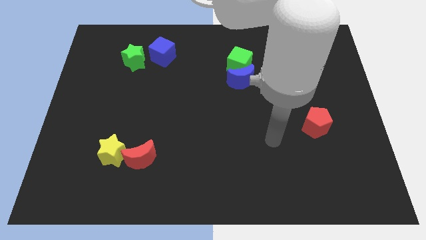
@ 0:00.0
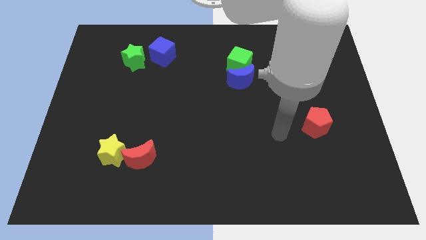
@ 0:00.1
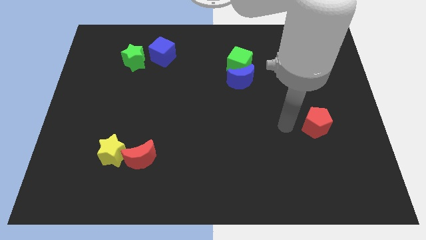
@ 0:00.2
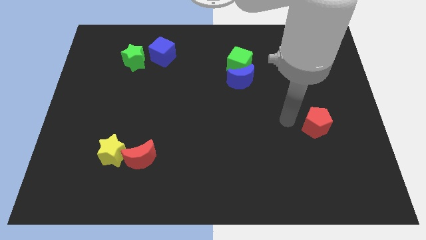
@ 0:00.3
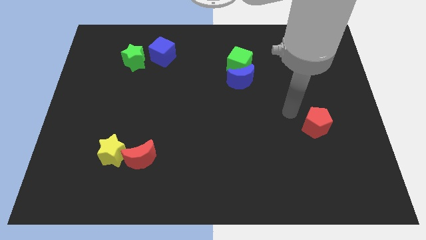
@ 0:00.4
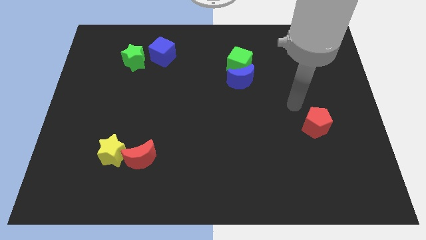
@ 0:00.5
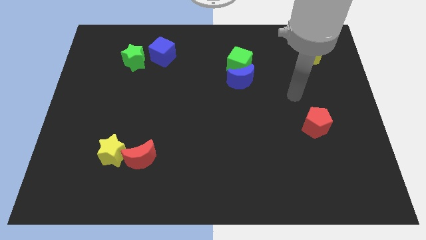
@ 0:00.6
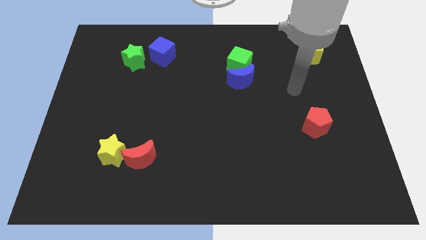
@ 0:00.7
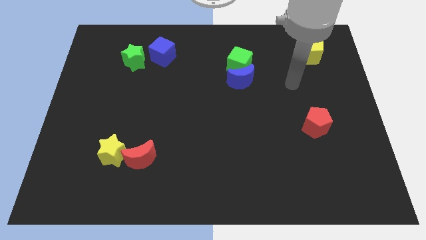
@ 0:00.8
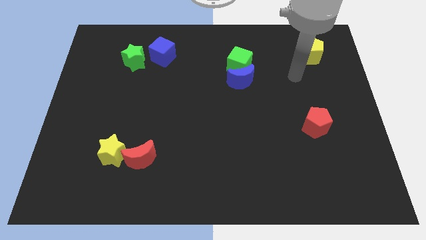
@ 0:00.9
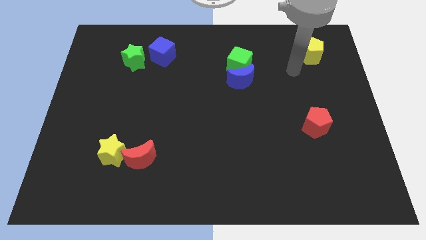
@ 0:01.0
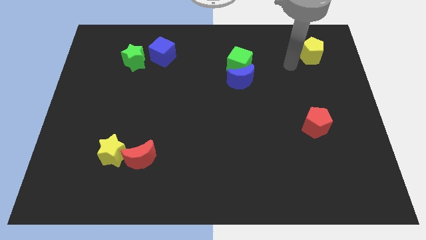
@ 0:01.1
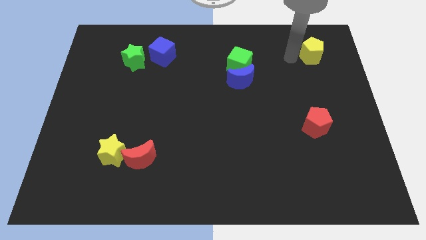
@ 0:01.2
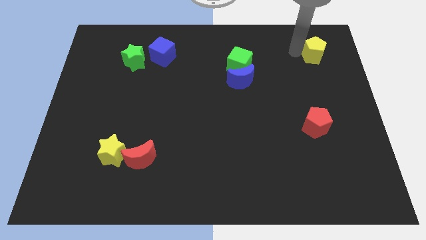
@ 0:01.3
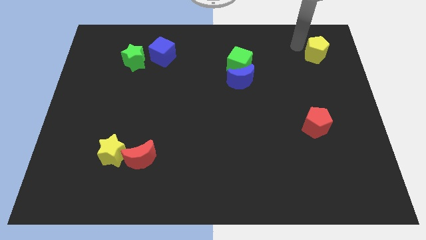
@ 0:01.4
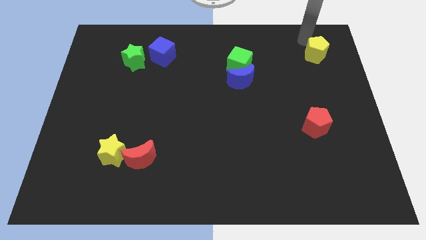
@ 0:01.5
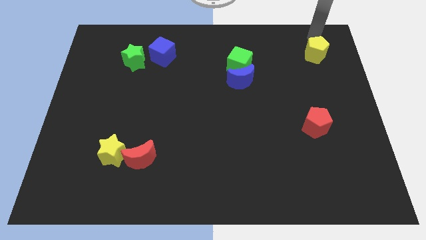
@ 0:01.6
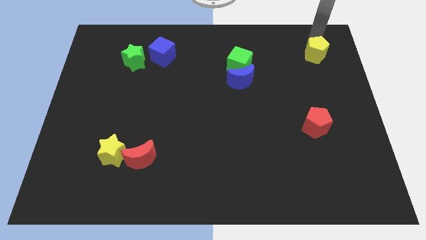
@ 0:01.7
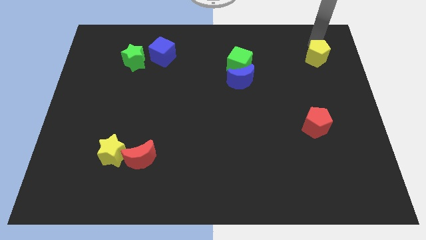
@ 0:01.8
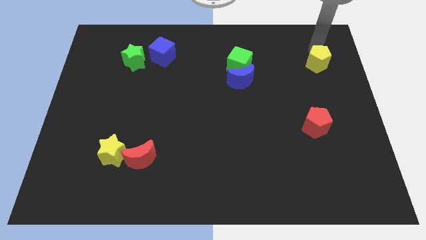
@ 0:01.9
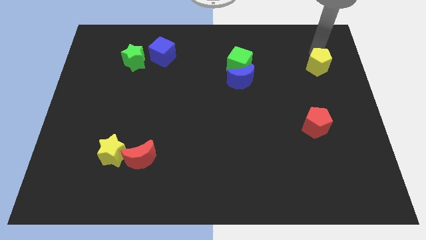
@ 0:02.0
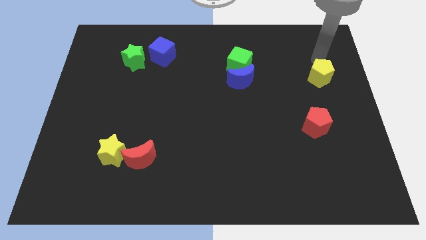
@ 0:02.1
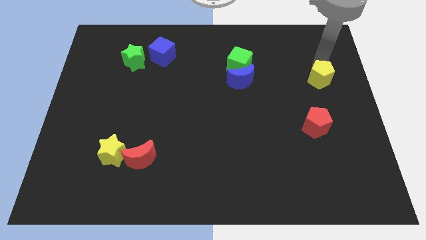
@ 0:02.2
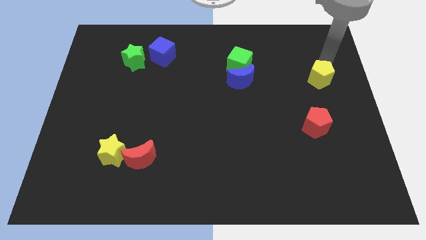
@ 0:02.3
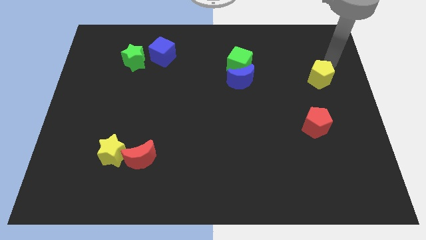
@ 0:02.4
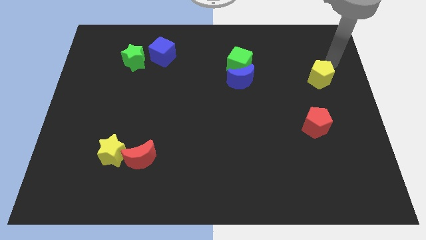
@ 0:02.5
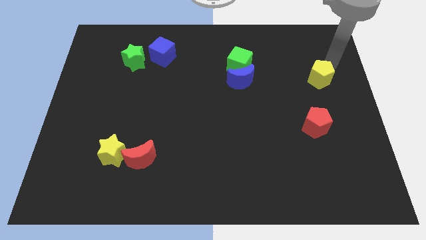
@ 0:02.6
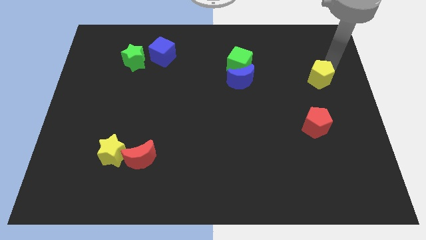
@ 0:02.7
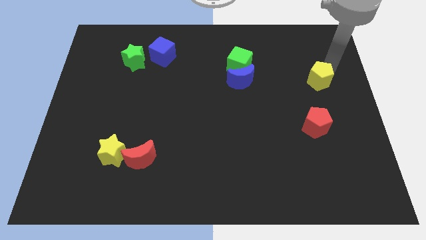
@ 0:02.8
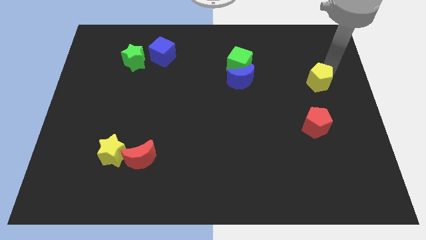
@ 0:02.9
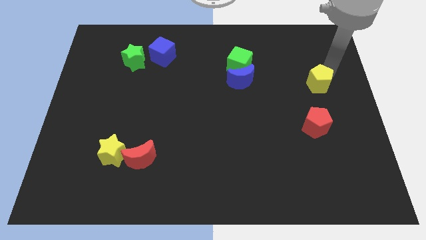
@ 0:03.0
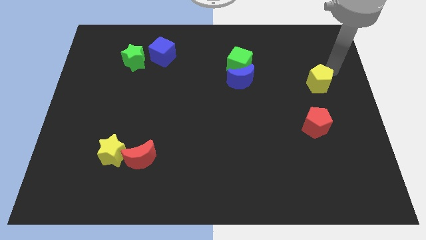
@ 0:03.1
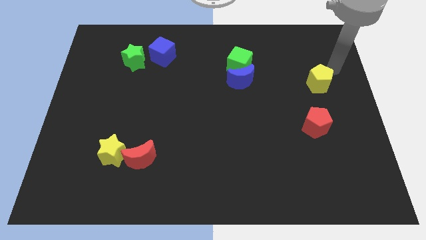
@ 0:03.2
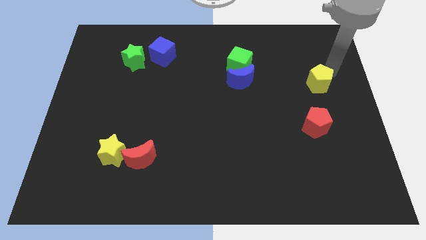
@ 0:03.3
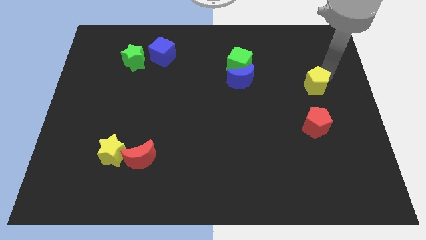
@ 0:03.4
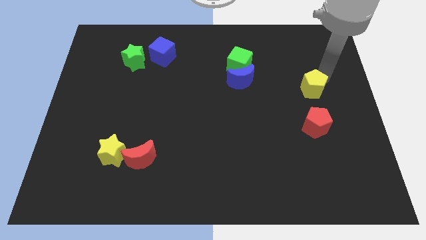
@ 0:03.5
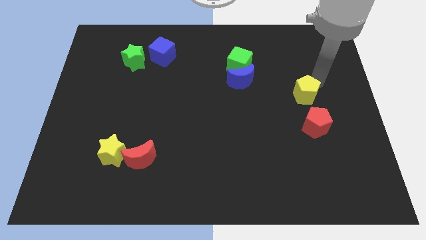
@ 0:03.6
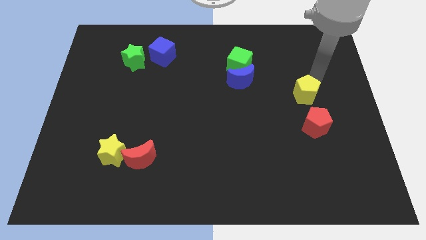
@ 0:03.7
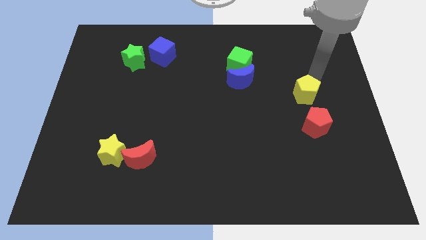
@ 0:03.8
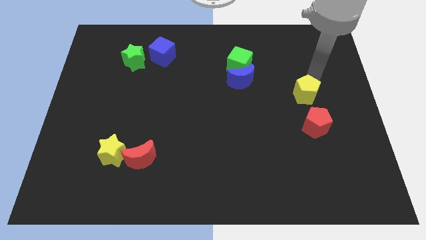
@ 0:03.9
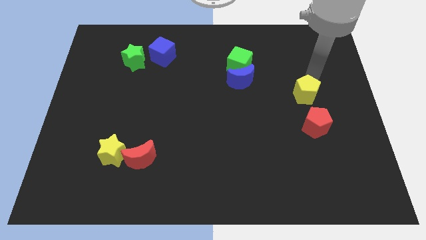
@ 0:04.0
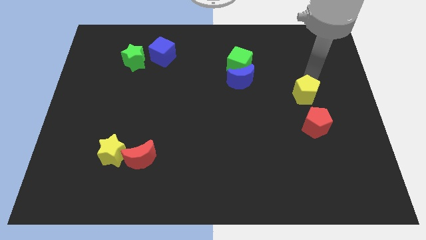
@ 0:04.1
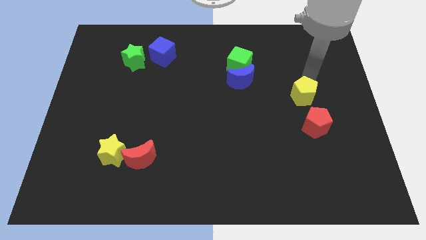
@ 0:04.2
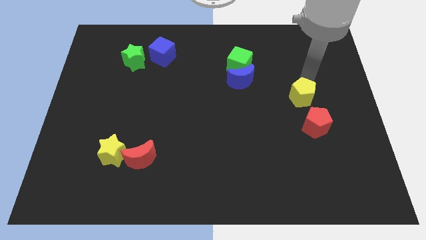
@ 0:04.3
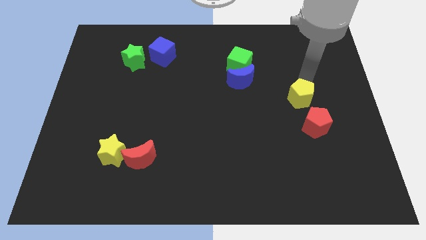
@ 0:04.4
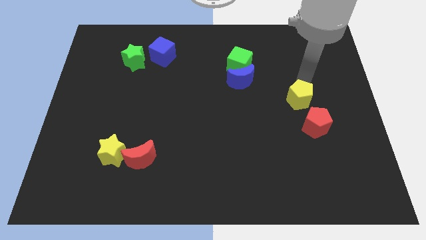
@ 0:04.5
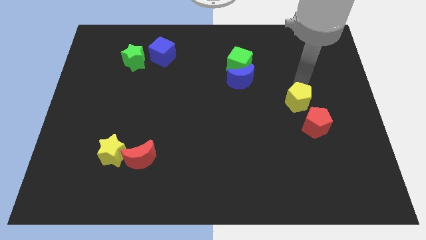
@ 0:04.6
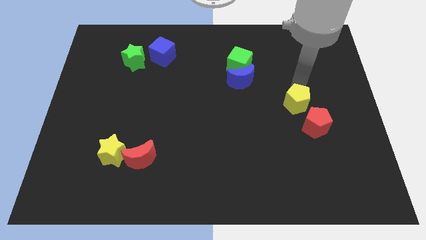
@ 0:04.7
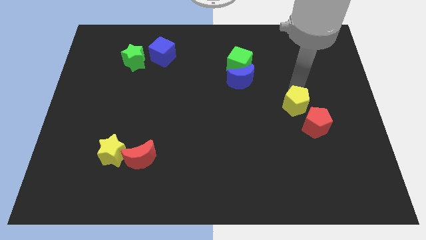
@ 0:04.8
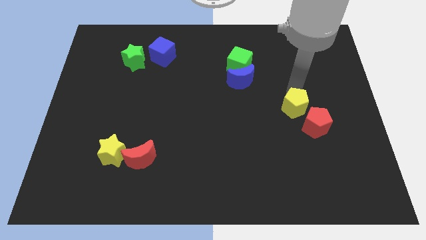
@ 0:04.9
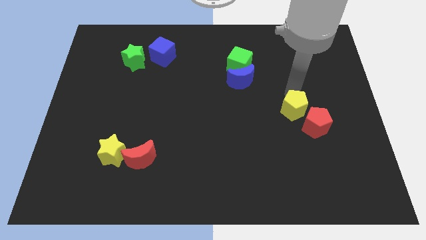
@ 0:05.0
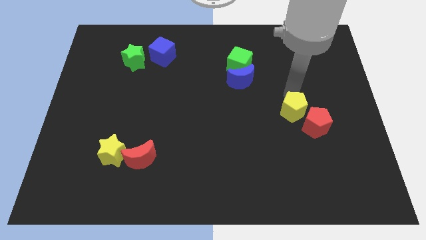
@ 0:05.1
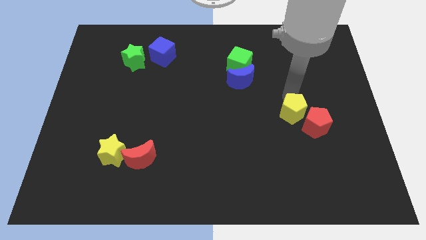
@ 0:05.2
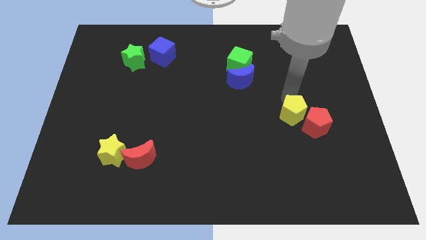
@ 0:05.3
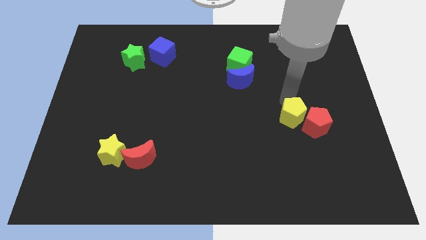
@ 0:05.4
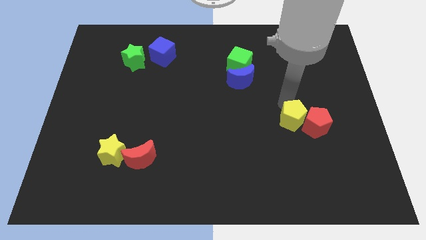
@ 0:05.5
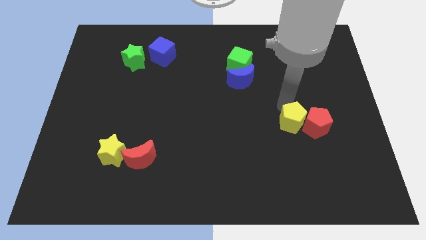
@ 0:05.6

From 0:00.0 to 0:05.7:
push the yellow pentagon diagonally down and to the left of the red pentagon

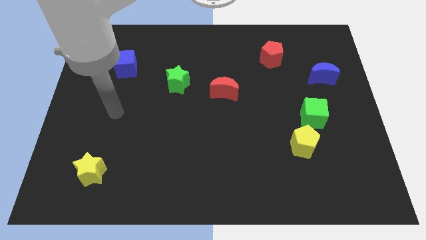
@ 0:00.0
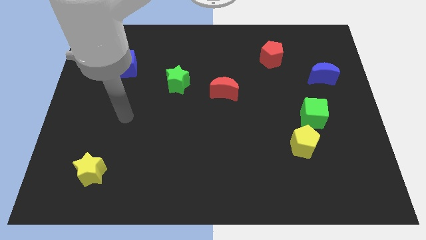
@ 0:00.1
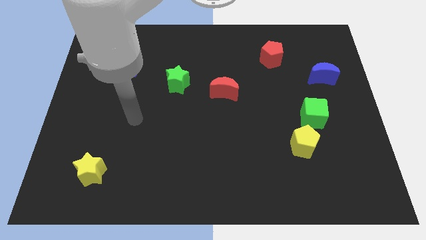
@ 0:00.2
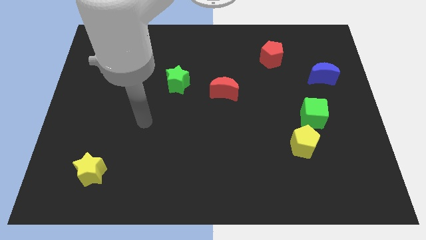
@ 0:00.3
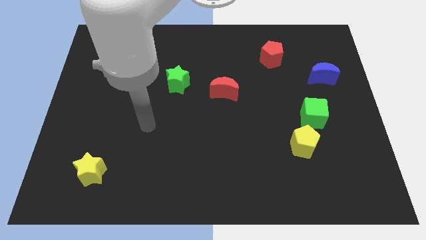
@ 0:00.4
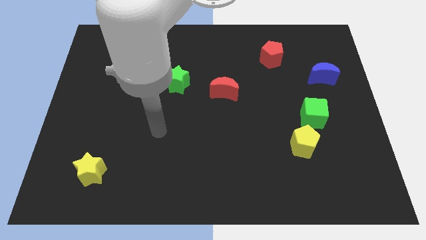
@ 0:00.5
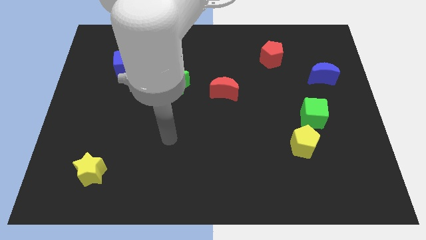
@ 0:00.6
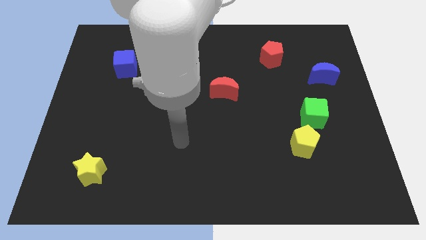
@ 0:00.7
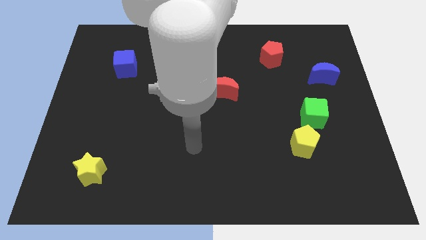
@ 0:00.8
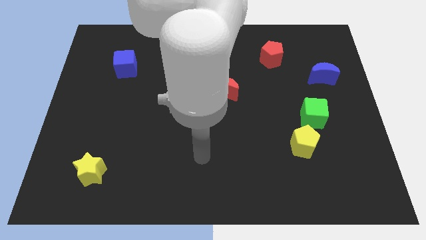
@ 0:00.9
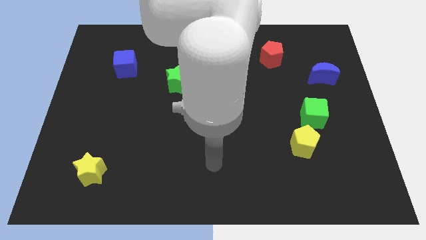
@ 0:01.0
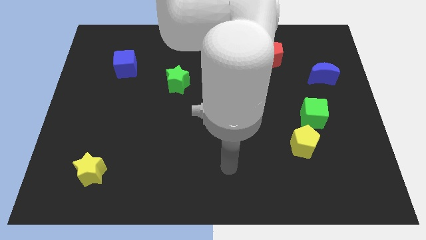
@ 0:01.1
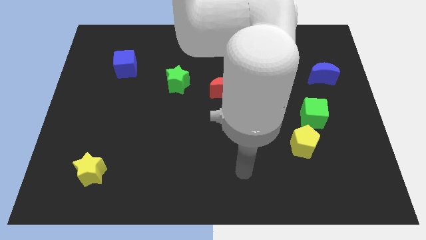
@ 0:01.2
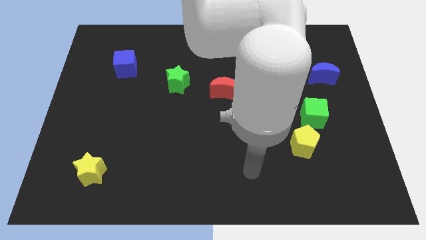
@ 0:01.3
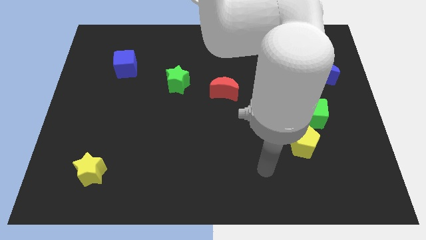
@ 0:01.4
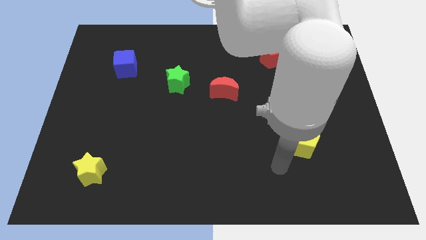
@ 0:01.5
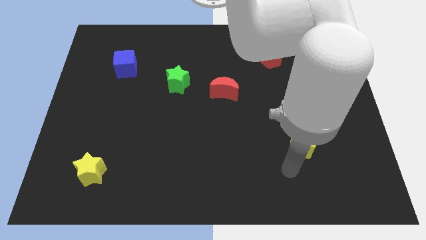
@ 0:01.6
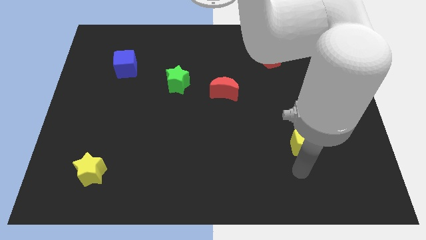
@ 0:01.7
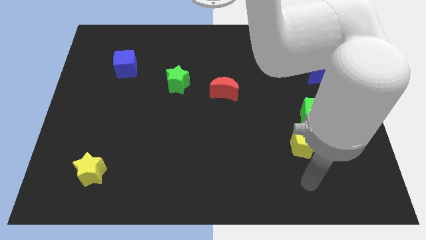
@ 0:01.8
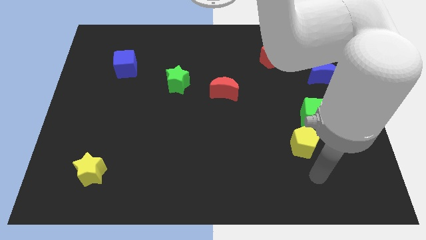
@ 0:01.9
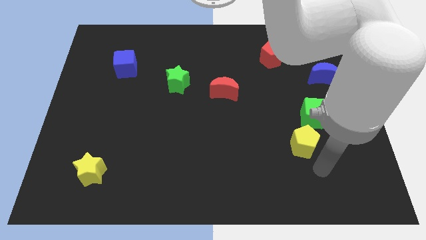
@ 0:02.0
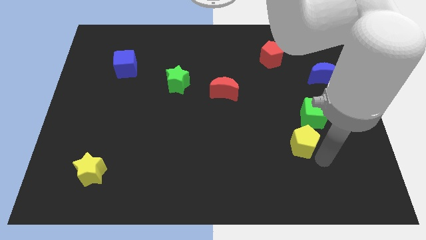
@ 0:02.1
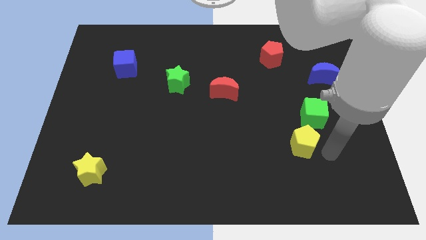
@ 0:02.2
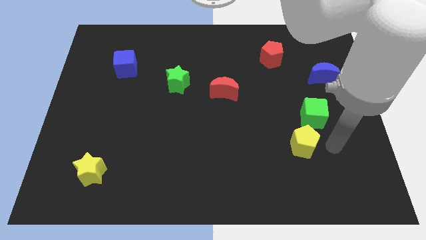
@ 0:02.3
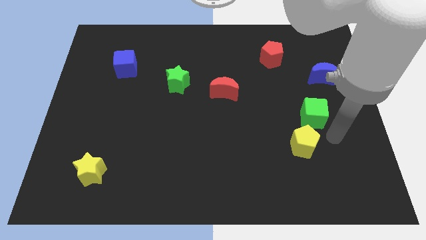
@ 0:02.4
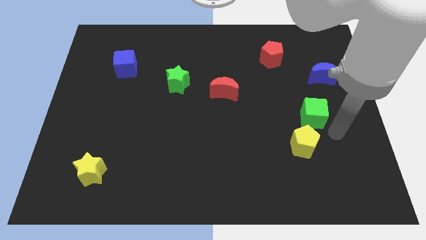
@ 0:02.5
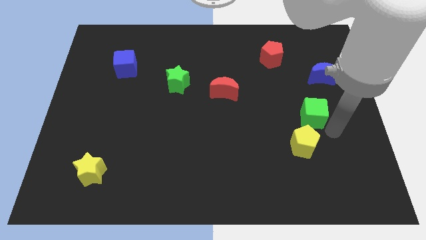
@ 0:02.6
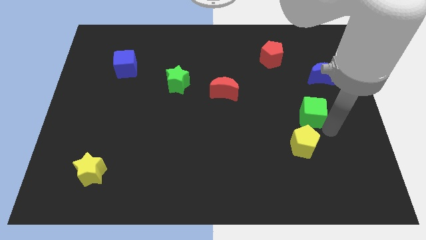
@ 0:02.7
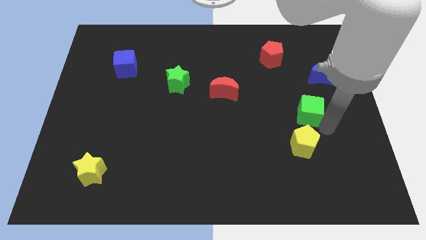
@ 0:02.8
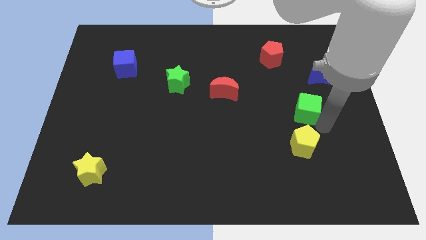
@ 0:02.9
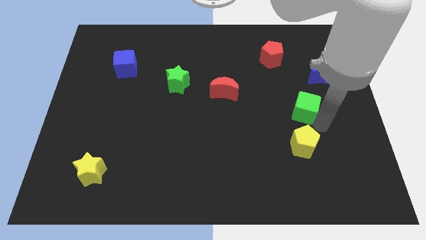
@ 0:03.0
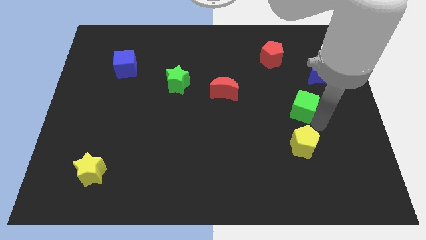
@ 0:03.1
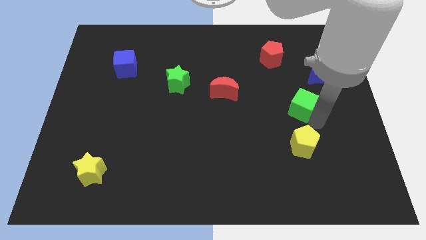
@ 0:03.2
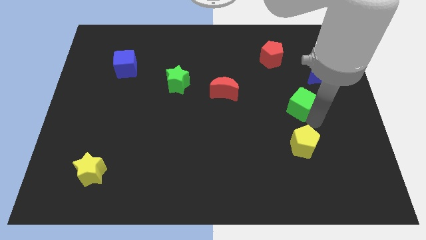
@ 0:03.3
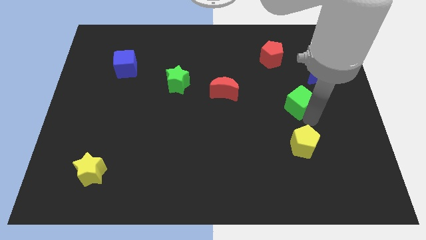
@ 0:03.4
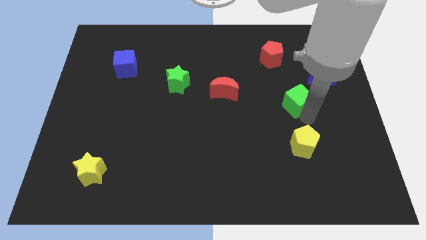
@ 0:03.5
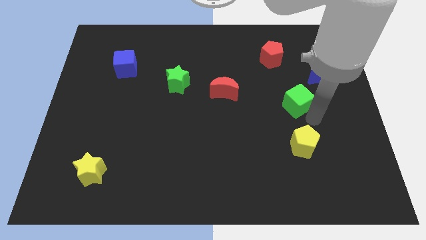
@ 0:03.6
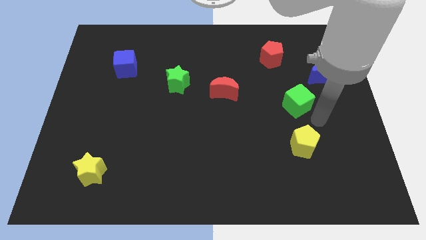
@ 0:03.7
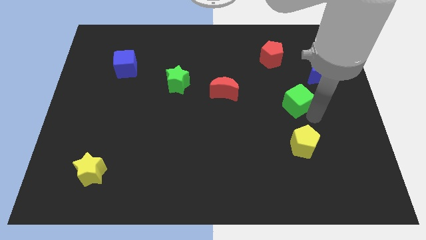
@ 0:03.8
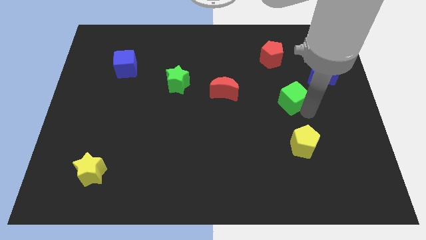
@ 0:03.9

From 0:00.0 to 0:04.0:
put the green cube to the bottom side of the red pentagon
